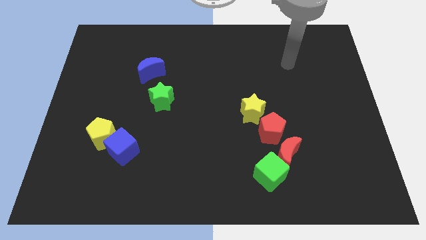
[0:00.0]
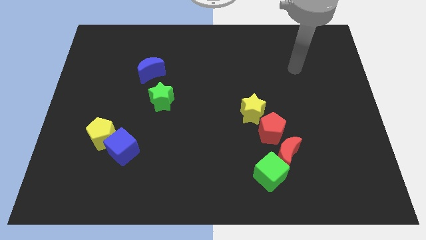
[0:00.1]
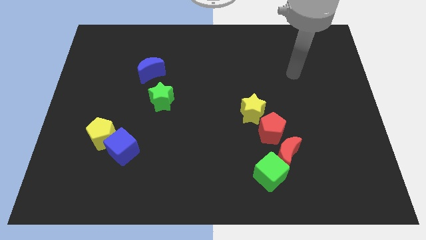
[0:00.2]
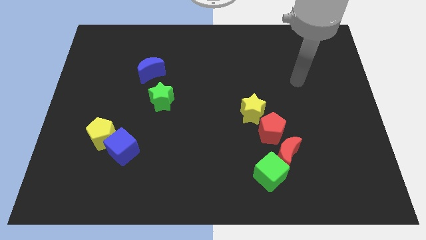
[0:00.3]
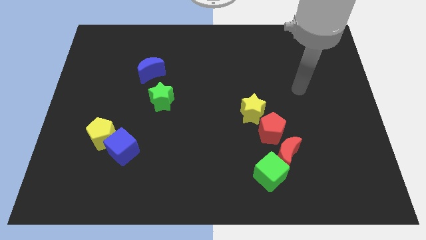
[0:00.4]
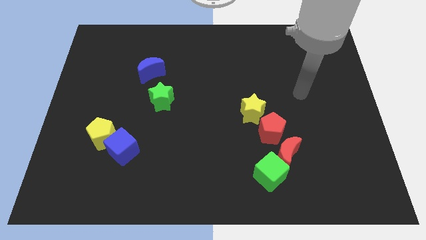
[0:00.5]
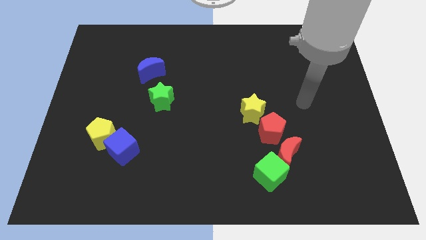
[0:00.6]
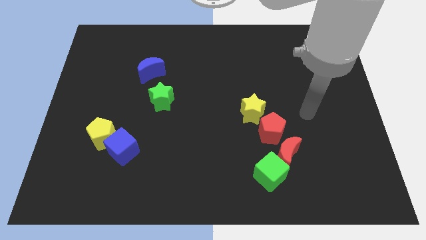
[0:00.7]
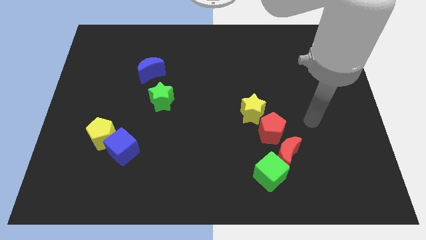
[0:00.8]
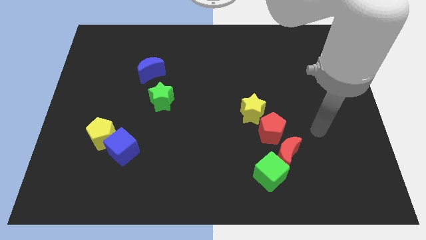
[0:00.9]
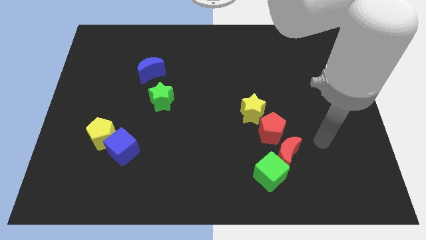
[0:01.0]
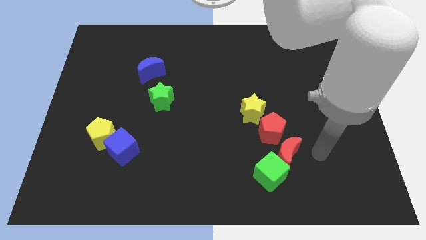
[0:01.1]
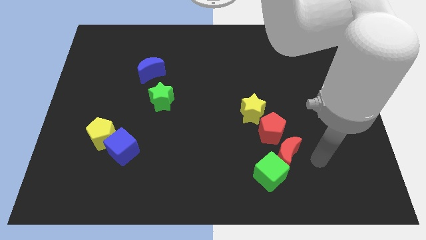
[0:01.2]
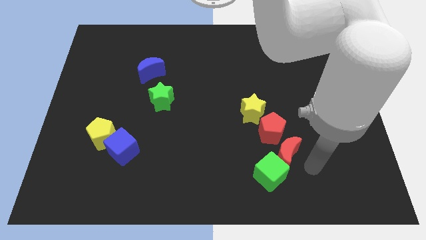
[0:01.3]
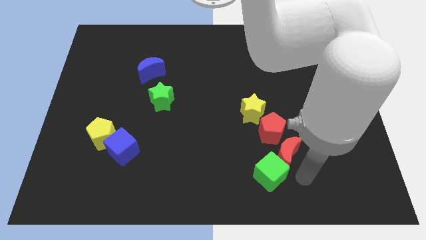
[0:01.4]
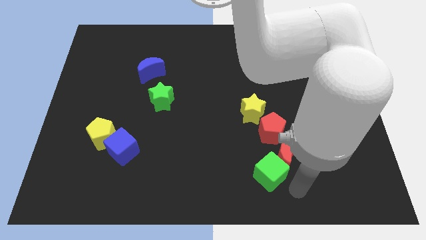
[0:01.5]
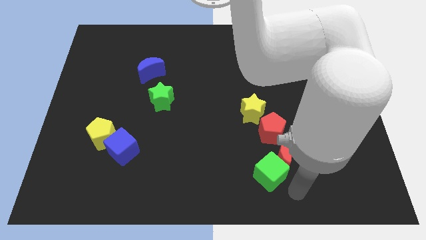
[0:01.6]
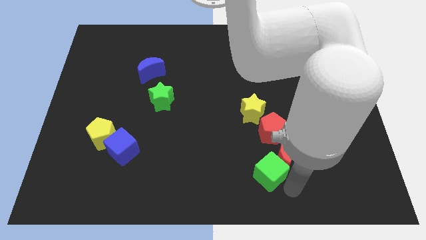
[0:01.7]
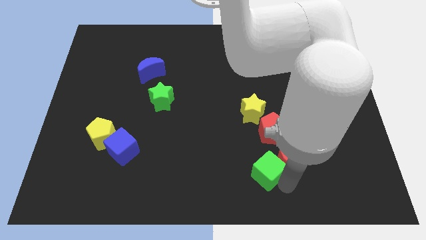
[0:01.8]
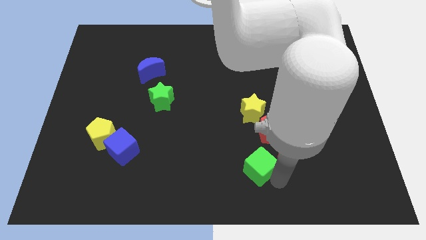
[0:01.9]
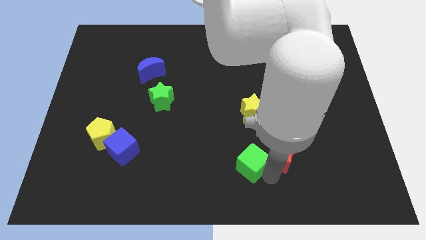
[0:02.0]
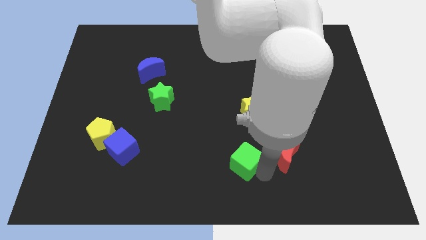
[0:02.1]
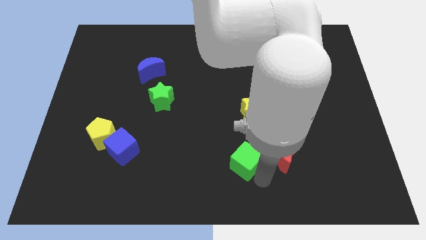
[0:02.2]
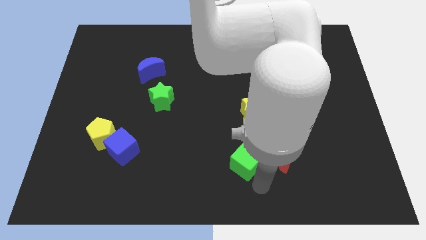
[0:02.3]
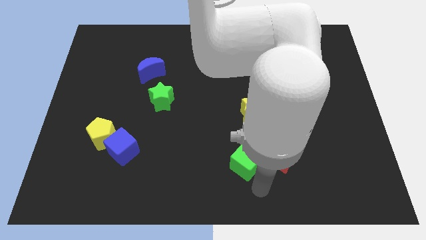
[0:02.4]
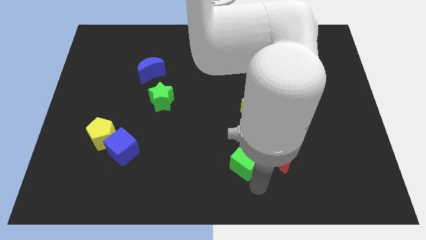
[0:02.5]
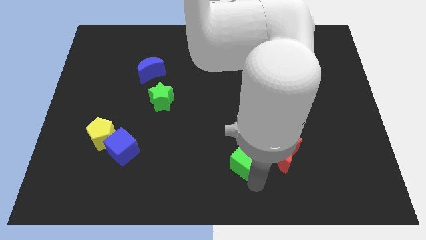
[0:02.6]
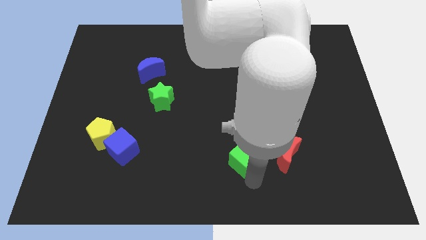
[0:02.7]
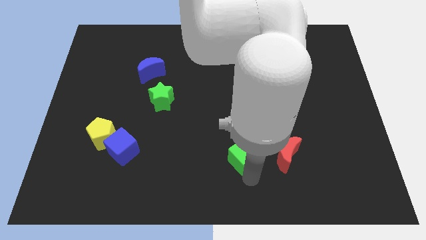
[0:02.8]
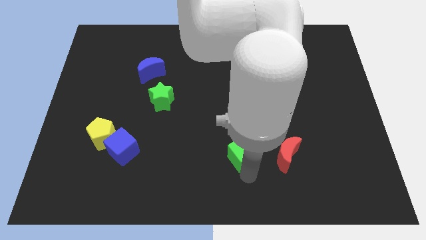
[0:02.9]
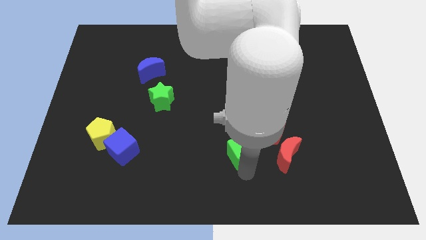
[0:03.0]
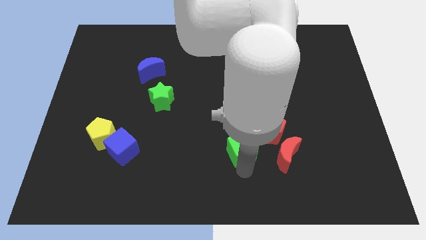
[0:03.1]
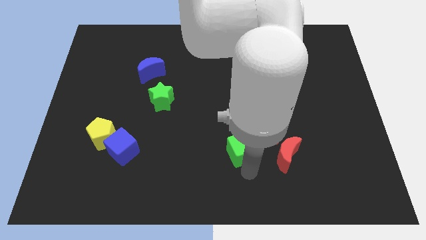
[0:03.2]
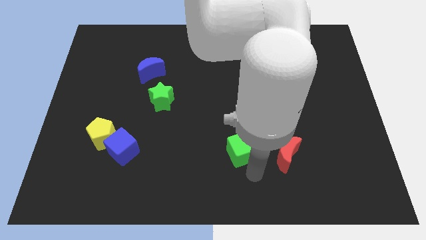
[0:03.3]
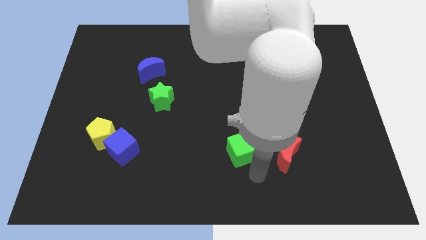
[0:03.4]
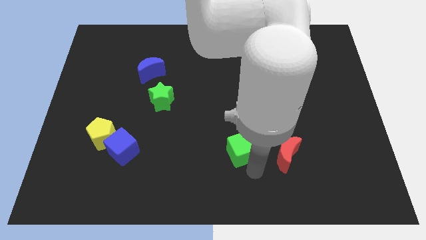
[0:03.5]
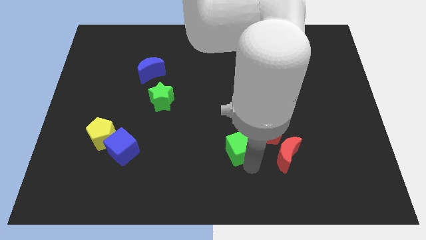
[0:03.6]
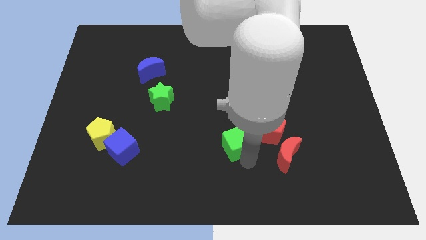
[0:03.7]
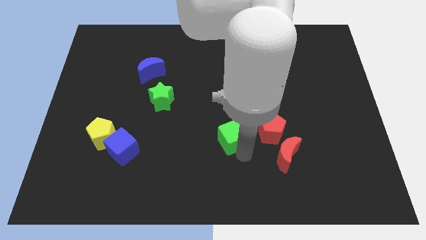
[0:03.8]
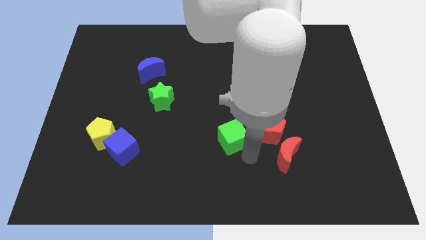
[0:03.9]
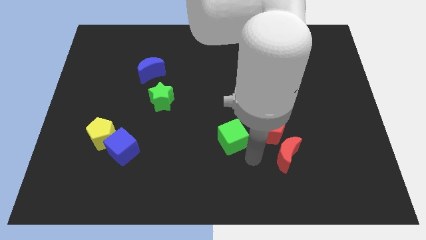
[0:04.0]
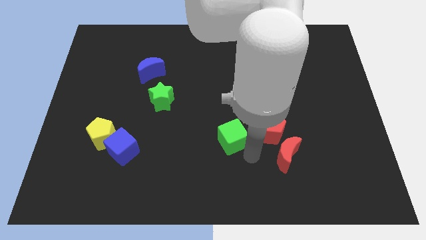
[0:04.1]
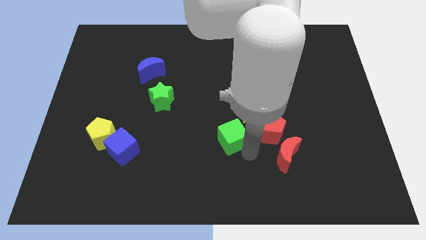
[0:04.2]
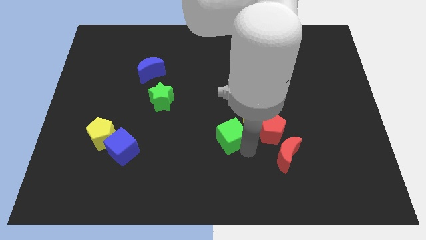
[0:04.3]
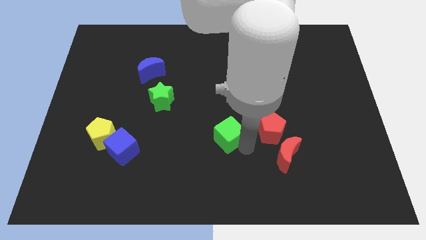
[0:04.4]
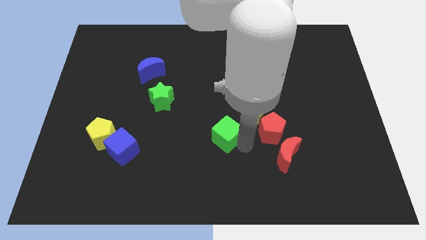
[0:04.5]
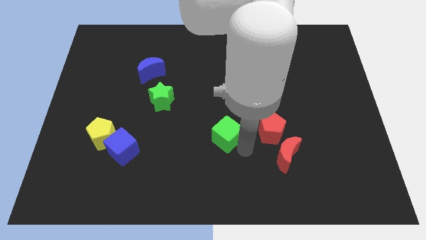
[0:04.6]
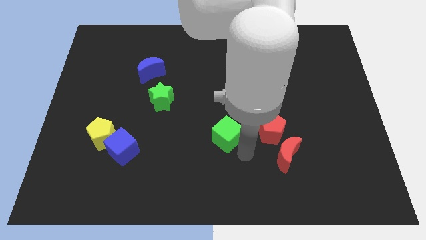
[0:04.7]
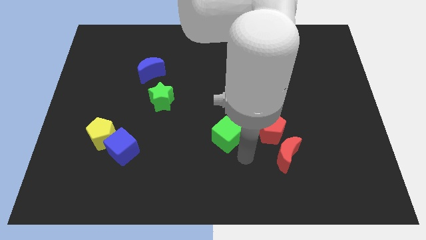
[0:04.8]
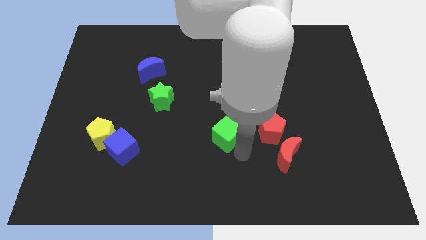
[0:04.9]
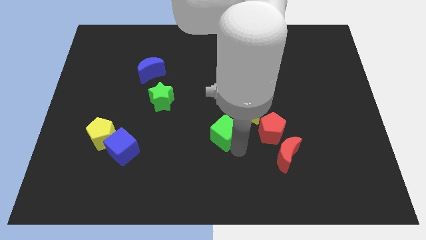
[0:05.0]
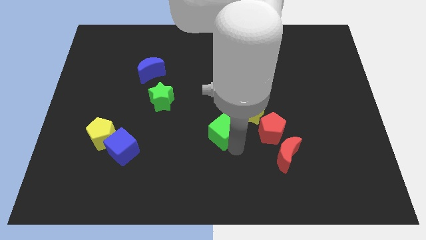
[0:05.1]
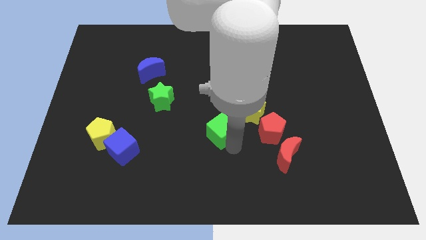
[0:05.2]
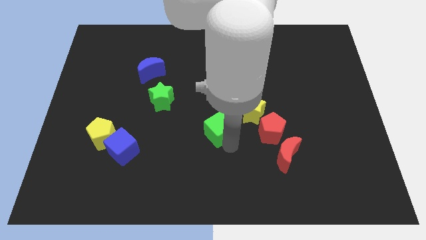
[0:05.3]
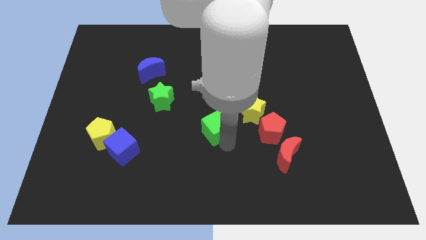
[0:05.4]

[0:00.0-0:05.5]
put the green cube to the left of the yellow star

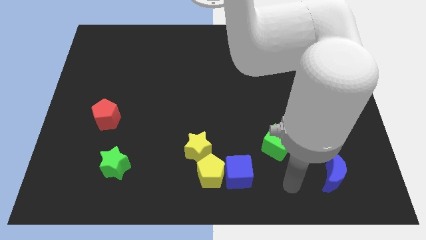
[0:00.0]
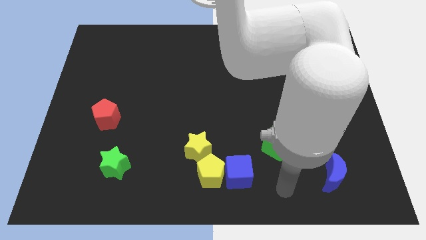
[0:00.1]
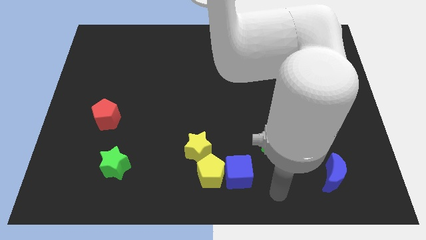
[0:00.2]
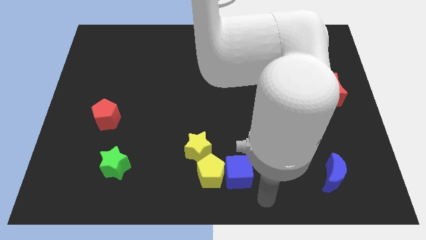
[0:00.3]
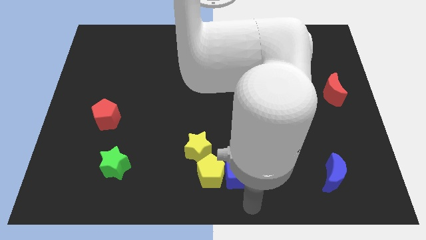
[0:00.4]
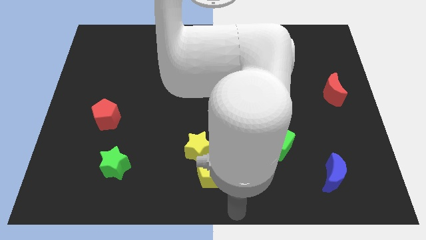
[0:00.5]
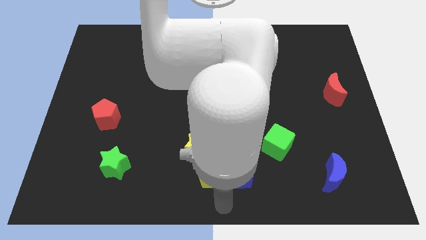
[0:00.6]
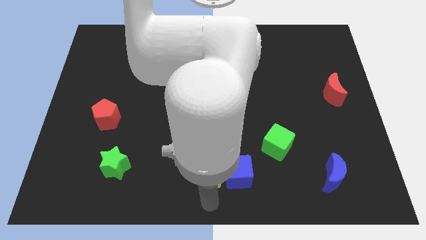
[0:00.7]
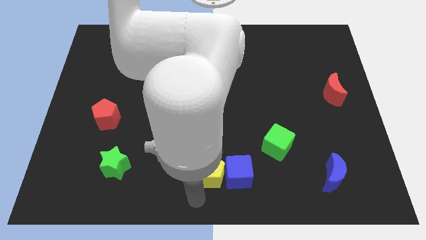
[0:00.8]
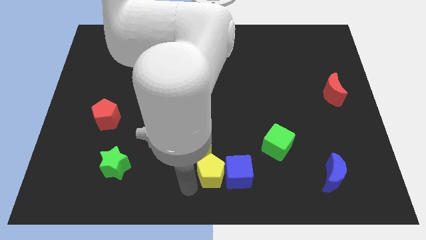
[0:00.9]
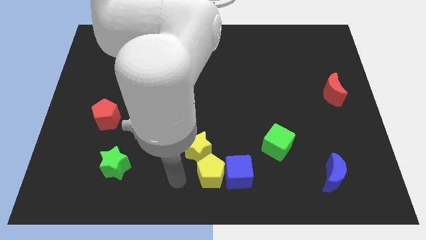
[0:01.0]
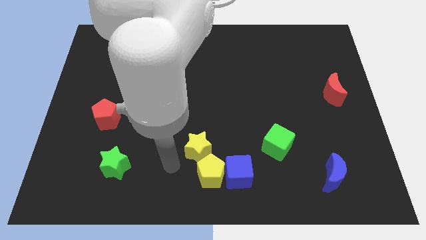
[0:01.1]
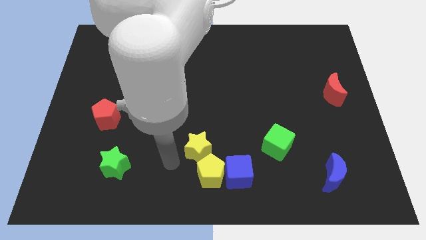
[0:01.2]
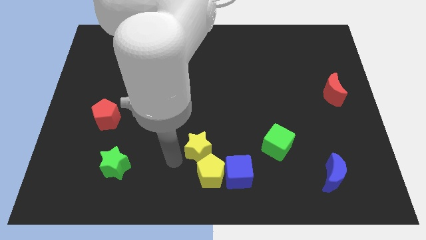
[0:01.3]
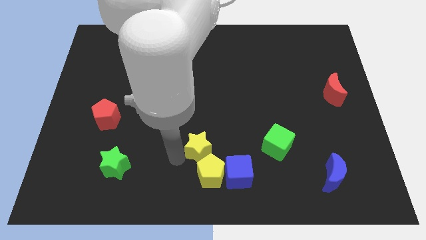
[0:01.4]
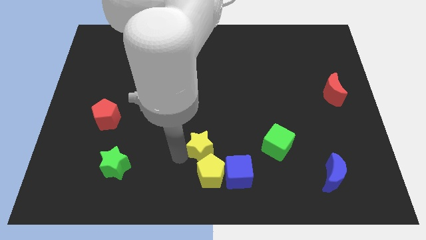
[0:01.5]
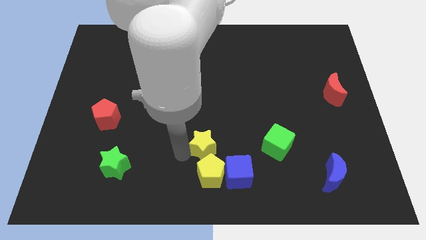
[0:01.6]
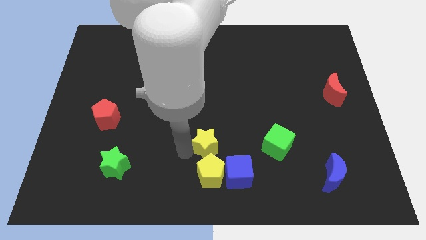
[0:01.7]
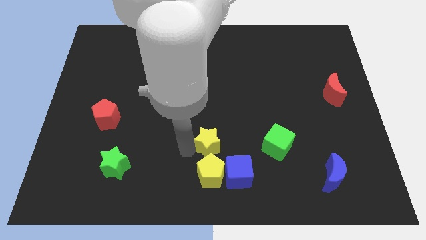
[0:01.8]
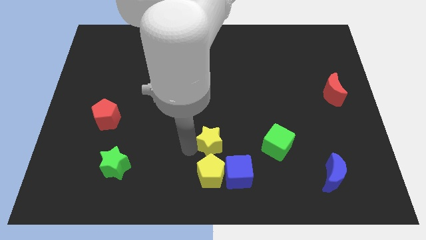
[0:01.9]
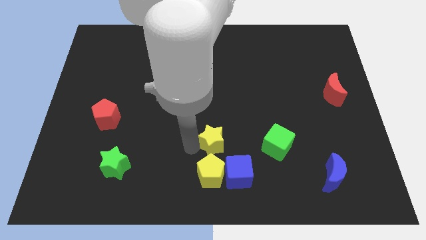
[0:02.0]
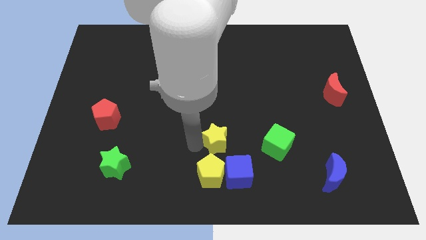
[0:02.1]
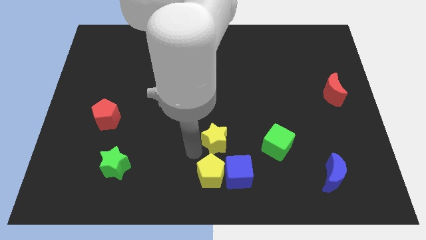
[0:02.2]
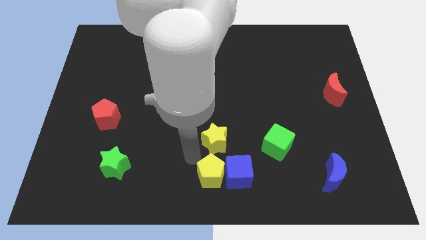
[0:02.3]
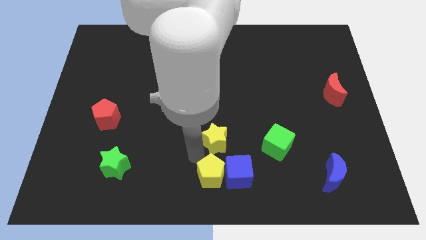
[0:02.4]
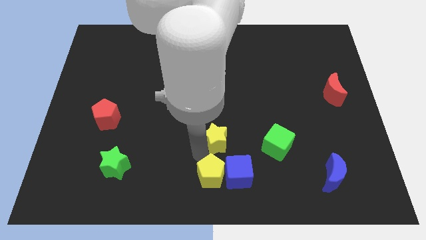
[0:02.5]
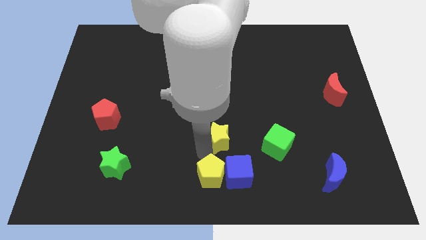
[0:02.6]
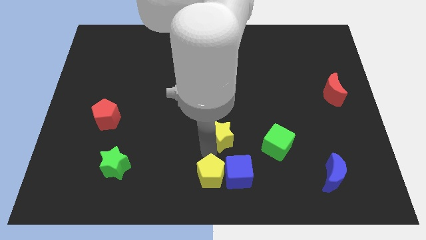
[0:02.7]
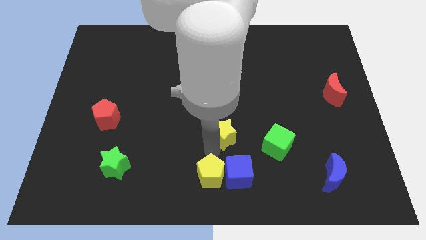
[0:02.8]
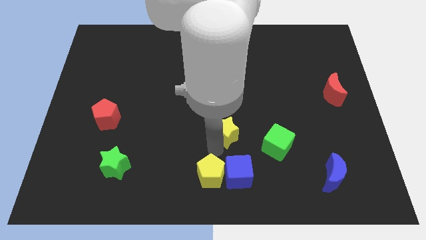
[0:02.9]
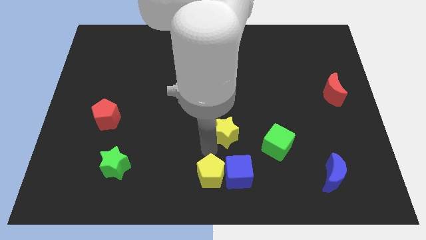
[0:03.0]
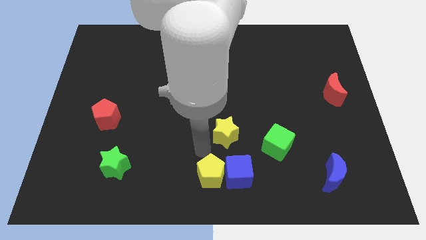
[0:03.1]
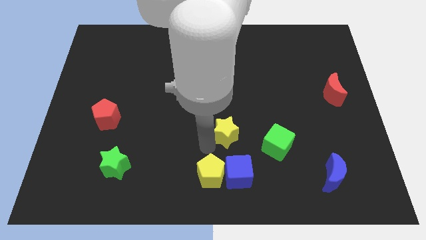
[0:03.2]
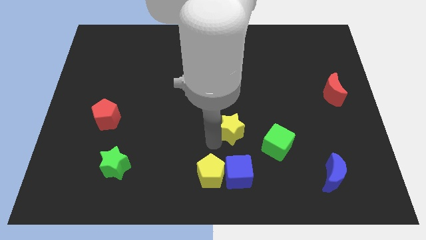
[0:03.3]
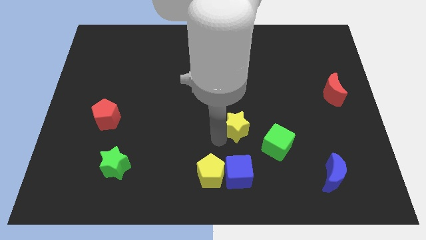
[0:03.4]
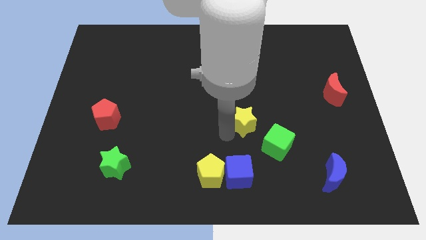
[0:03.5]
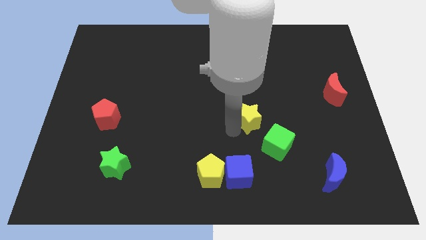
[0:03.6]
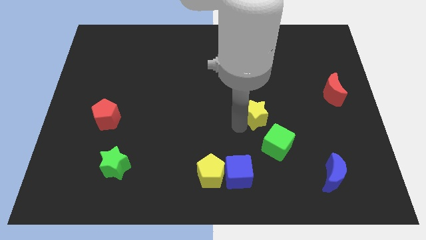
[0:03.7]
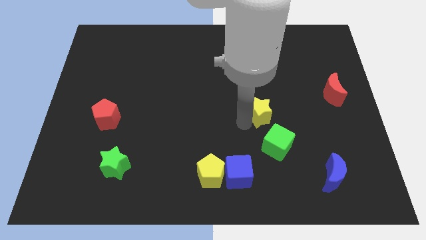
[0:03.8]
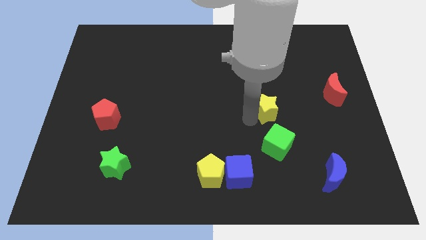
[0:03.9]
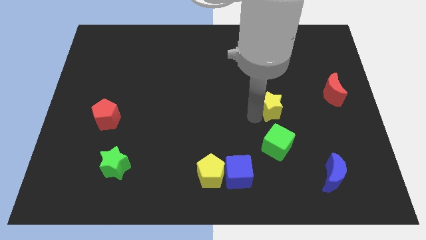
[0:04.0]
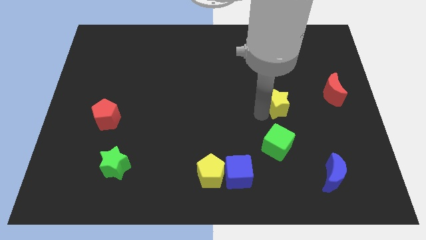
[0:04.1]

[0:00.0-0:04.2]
move the yellow star to the left of the red moon
